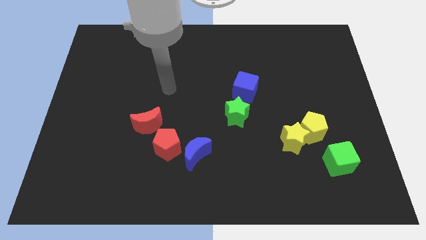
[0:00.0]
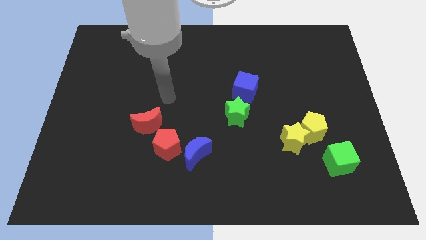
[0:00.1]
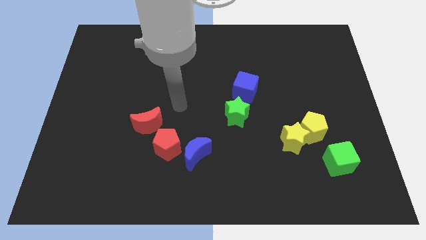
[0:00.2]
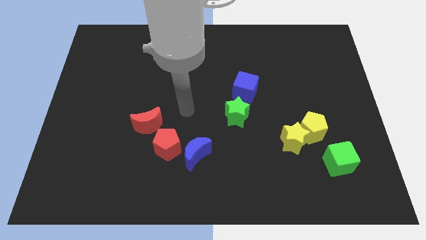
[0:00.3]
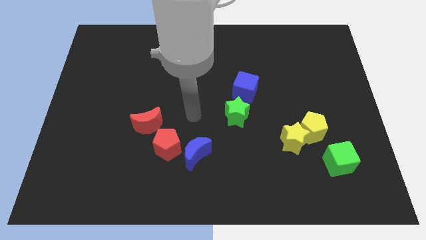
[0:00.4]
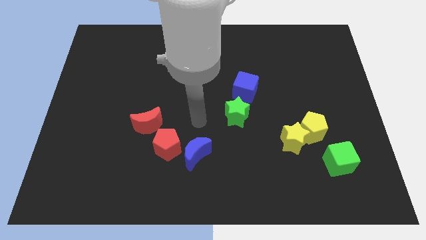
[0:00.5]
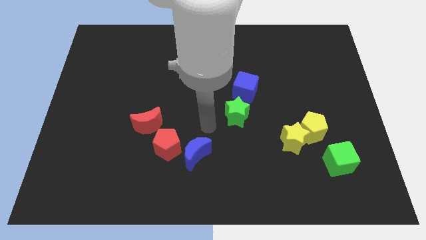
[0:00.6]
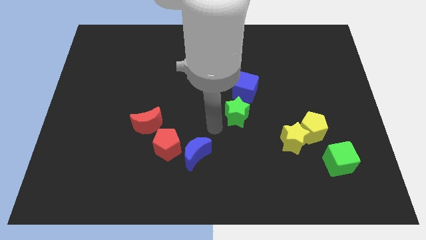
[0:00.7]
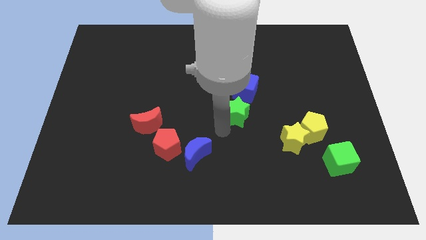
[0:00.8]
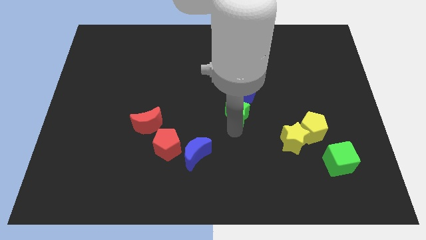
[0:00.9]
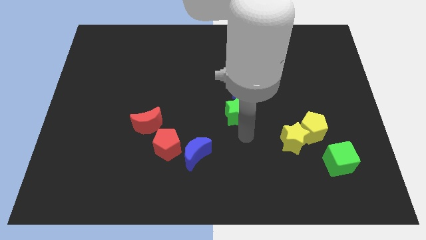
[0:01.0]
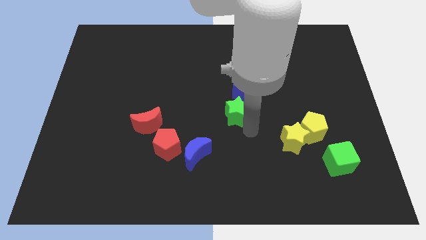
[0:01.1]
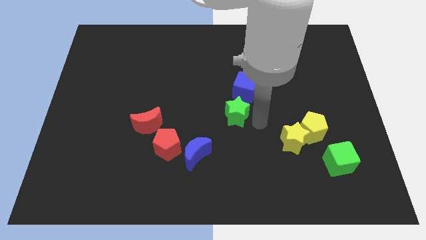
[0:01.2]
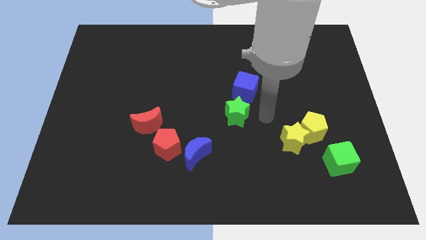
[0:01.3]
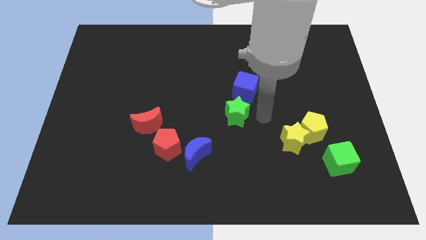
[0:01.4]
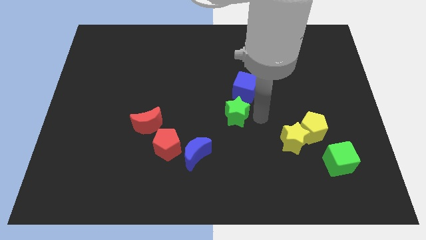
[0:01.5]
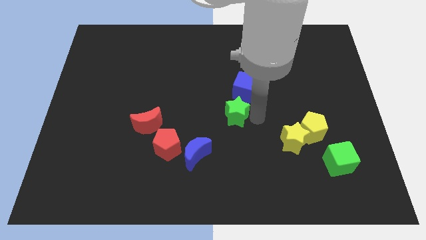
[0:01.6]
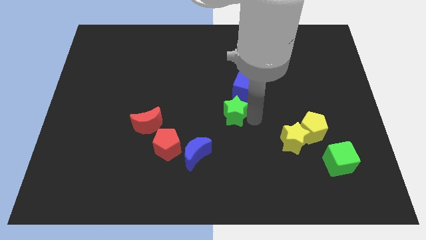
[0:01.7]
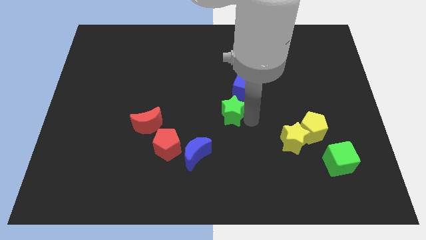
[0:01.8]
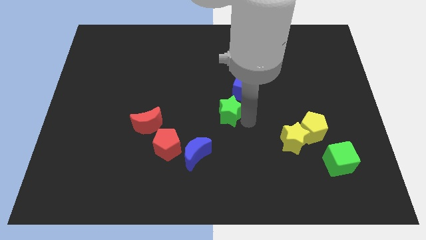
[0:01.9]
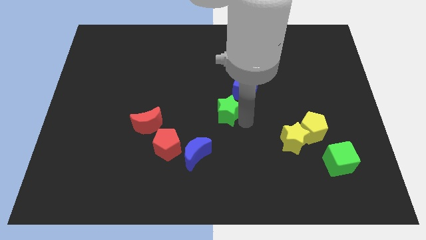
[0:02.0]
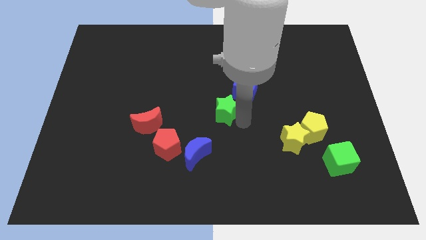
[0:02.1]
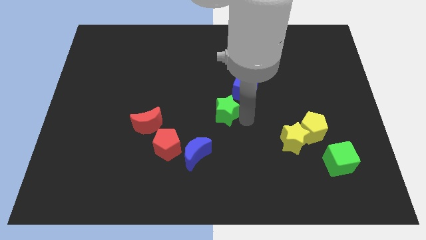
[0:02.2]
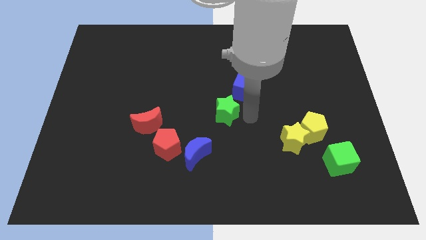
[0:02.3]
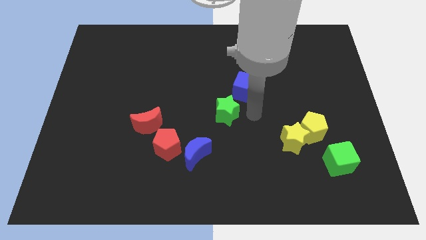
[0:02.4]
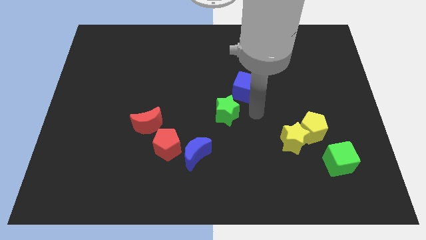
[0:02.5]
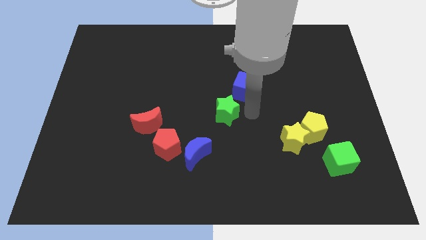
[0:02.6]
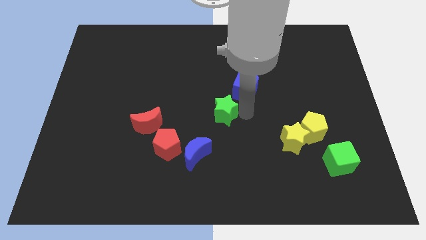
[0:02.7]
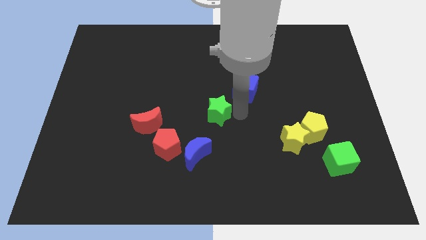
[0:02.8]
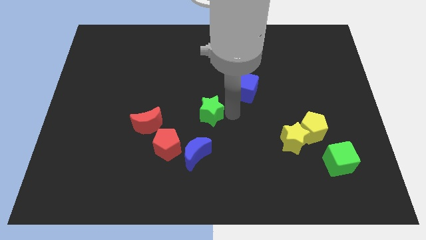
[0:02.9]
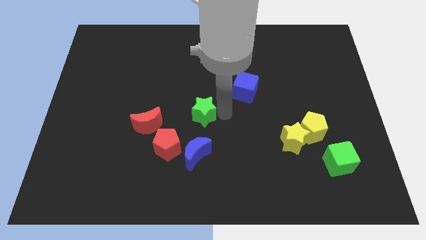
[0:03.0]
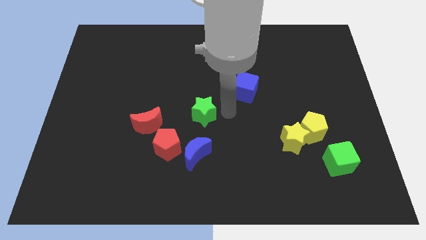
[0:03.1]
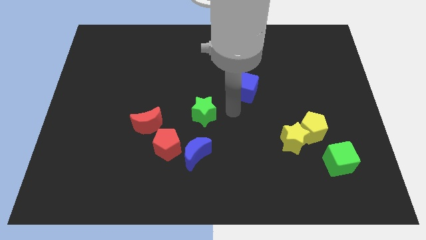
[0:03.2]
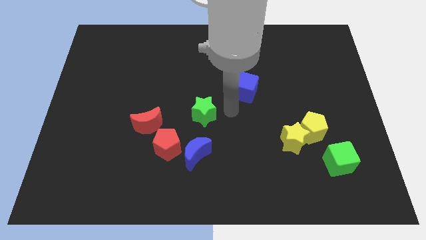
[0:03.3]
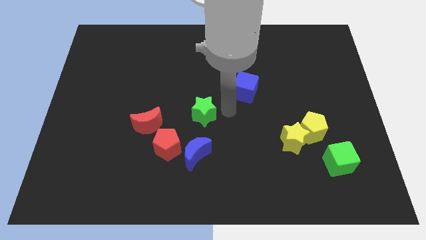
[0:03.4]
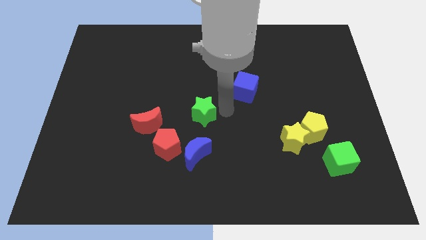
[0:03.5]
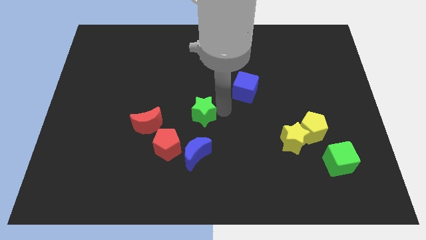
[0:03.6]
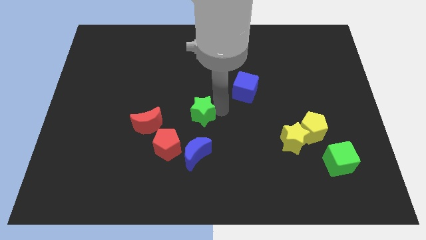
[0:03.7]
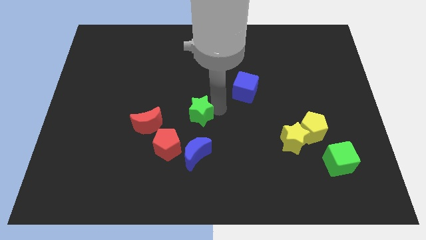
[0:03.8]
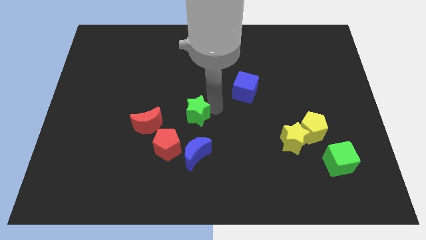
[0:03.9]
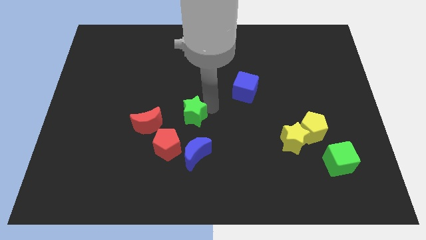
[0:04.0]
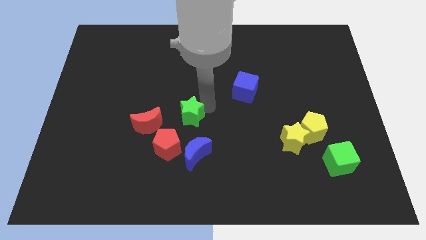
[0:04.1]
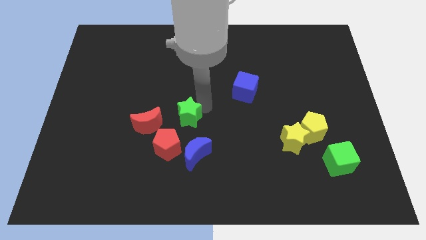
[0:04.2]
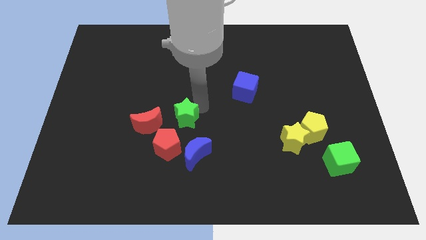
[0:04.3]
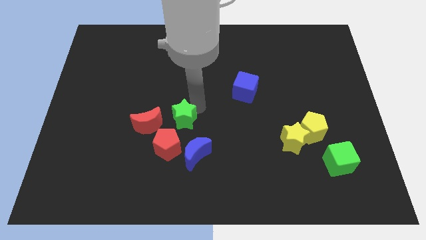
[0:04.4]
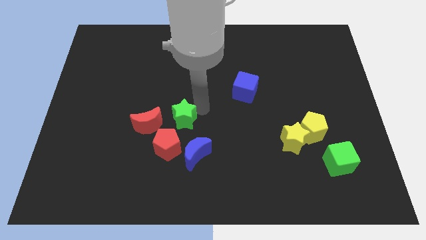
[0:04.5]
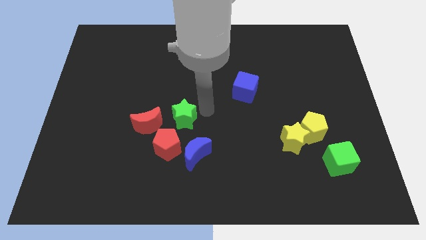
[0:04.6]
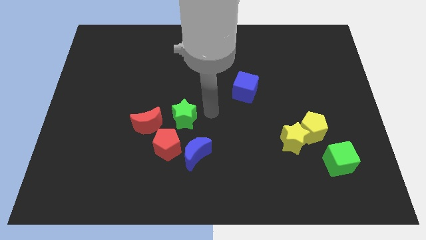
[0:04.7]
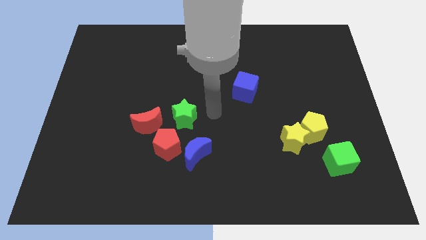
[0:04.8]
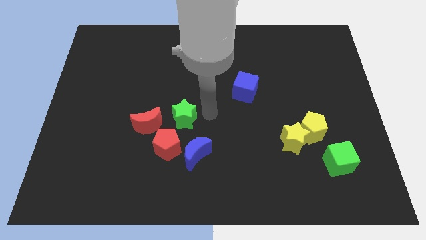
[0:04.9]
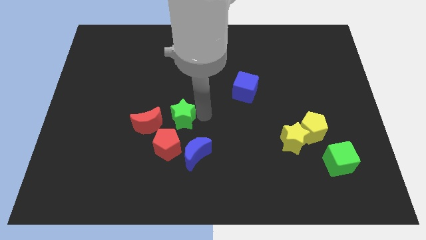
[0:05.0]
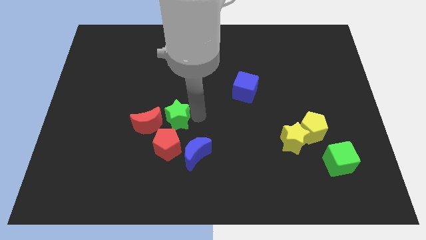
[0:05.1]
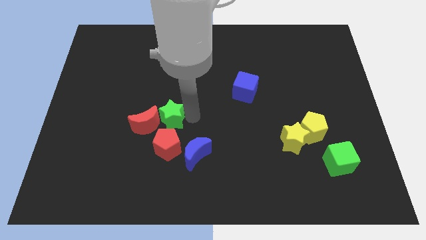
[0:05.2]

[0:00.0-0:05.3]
push the green star to the red moon

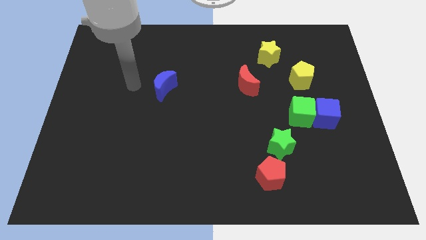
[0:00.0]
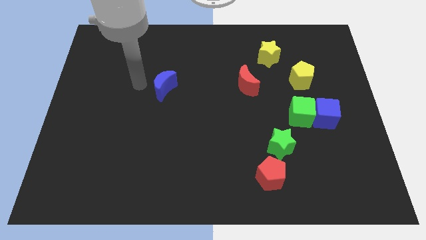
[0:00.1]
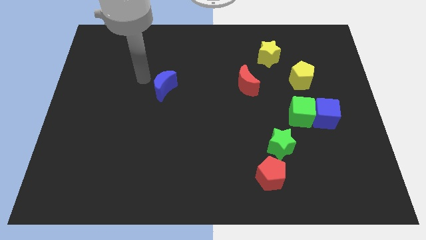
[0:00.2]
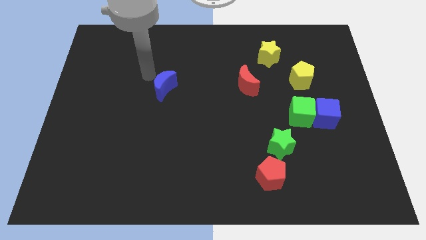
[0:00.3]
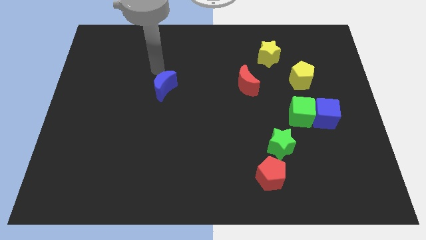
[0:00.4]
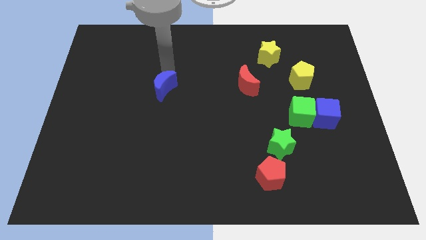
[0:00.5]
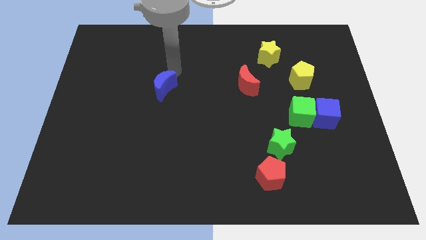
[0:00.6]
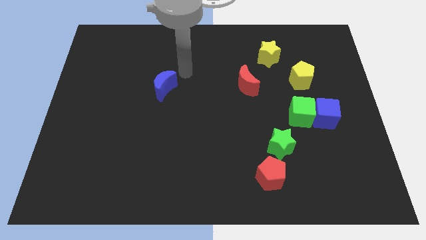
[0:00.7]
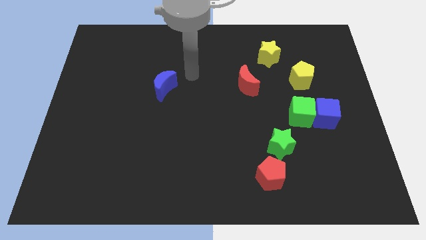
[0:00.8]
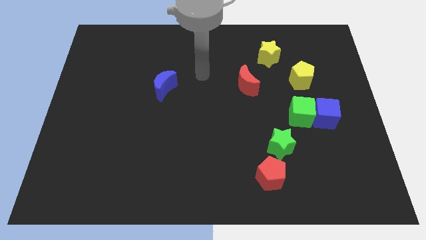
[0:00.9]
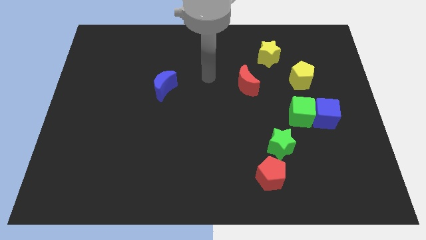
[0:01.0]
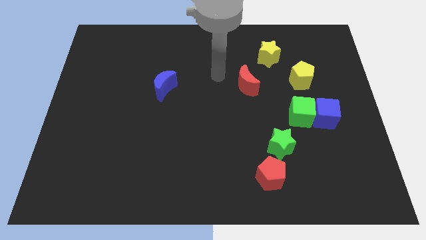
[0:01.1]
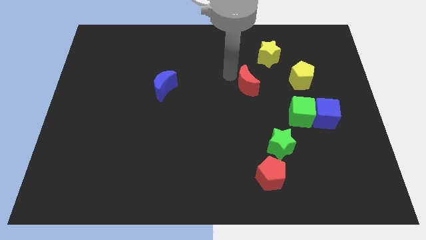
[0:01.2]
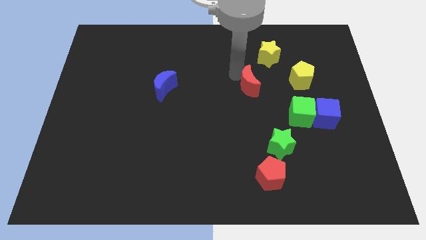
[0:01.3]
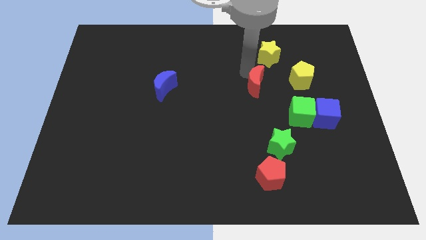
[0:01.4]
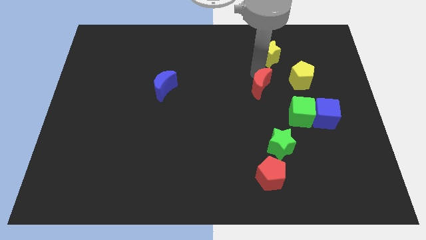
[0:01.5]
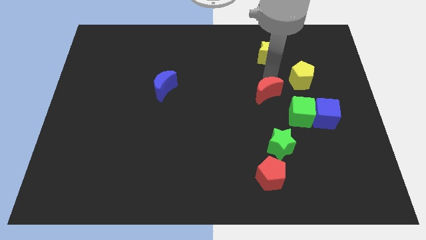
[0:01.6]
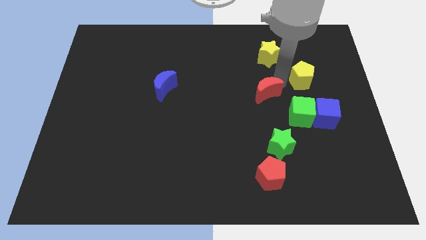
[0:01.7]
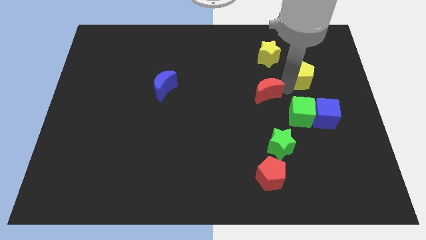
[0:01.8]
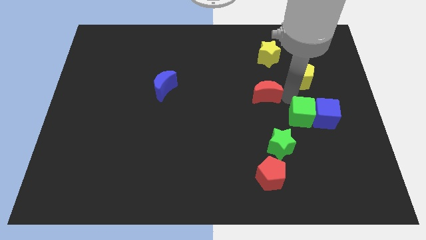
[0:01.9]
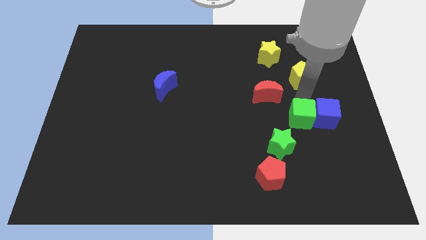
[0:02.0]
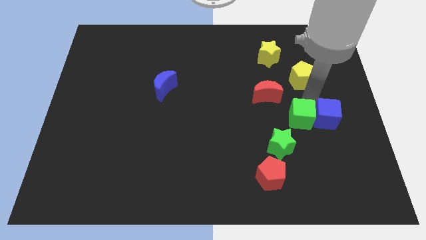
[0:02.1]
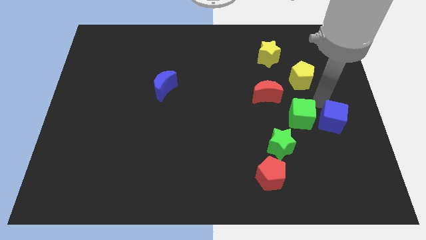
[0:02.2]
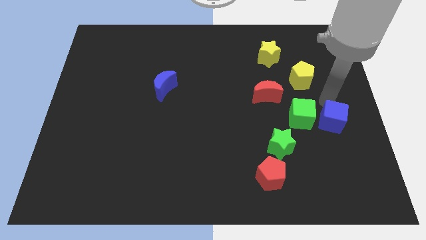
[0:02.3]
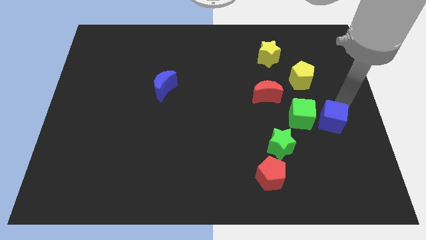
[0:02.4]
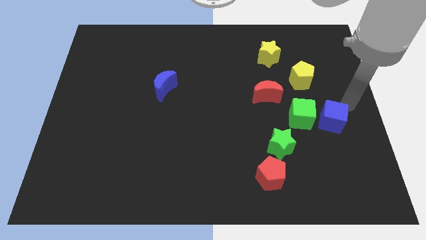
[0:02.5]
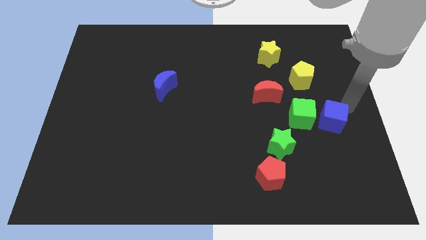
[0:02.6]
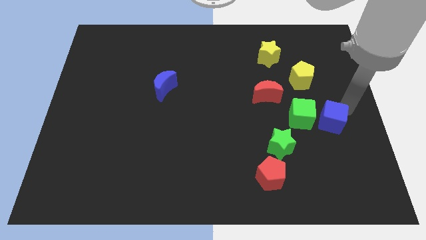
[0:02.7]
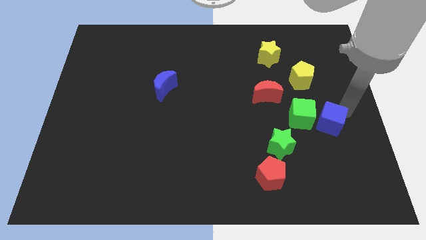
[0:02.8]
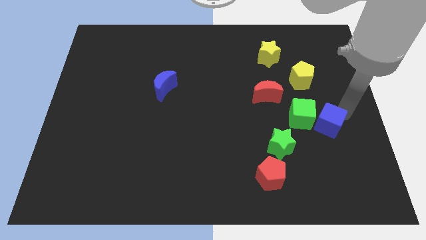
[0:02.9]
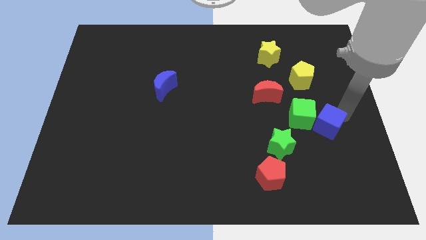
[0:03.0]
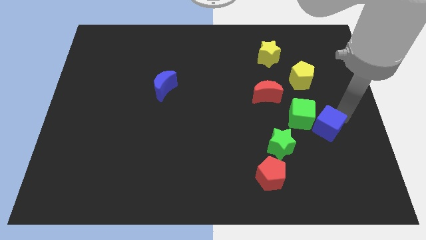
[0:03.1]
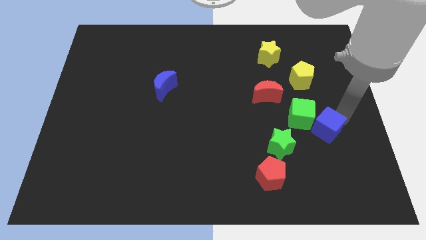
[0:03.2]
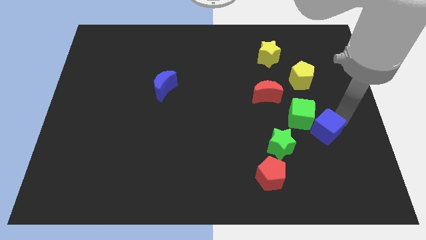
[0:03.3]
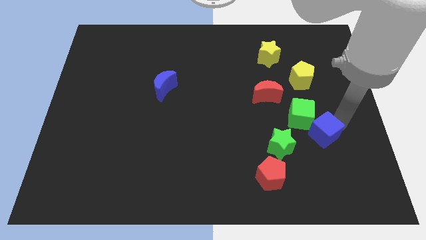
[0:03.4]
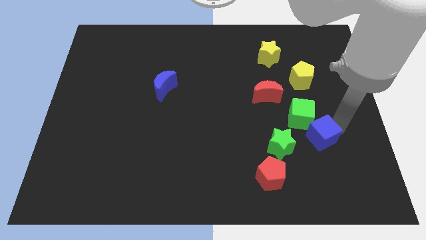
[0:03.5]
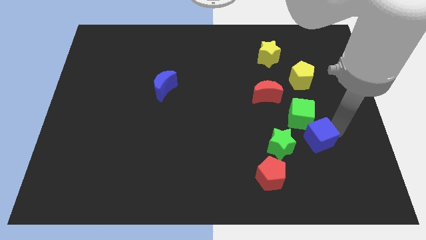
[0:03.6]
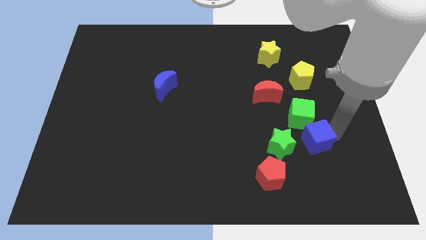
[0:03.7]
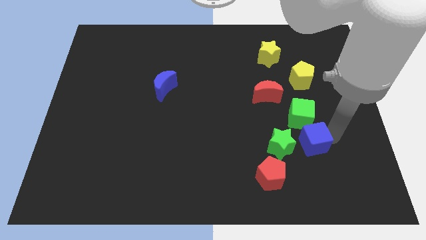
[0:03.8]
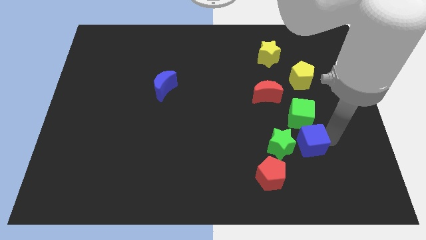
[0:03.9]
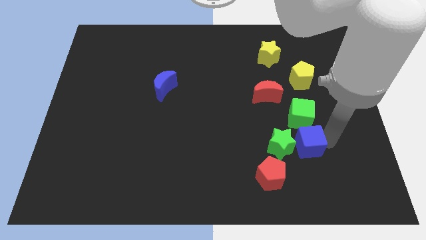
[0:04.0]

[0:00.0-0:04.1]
slide the blue cube towards the green star
